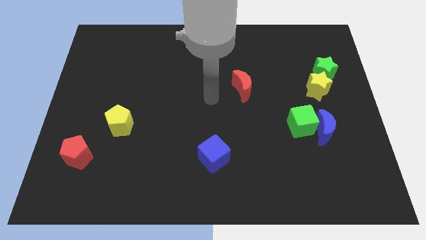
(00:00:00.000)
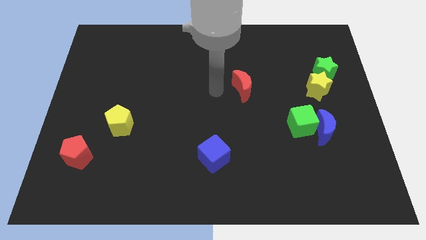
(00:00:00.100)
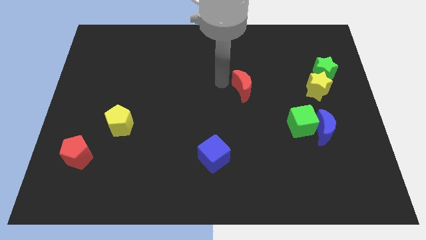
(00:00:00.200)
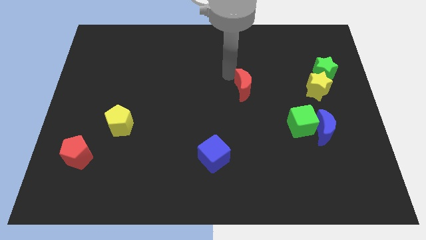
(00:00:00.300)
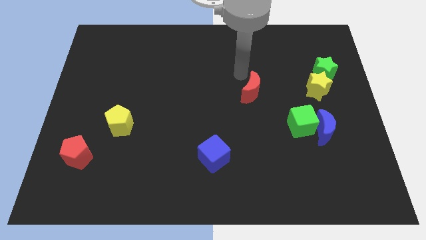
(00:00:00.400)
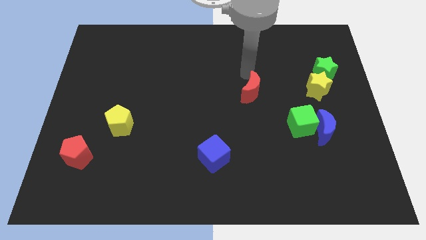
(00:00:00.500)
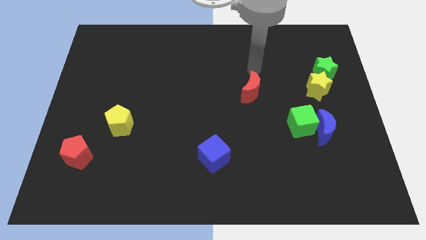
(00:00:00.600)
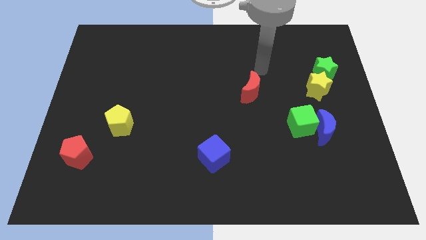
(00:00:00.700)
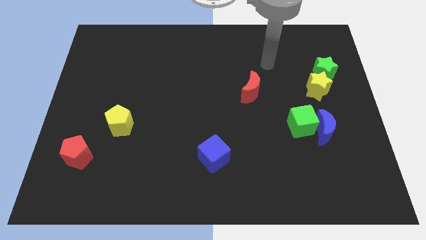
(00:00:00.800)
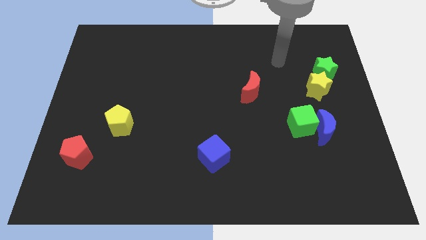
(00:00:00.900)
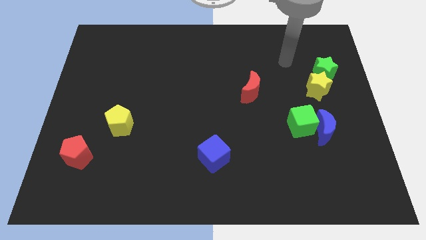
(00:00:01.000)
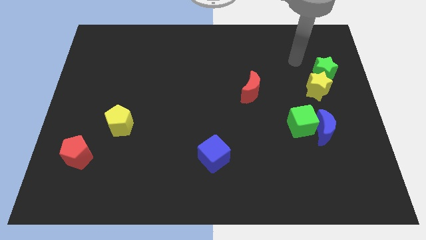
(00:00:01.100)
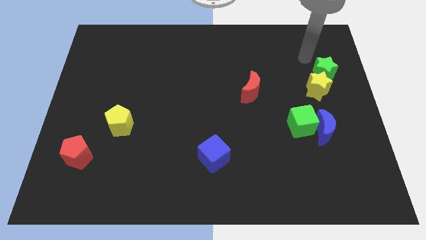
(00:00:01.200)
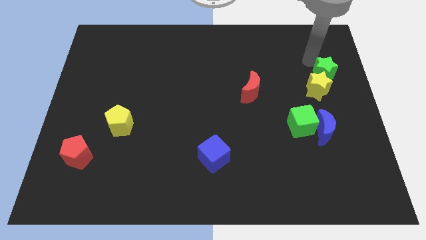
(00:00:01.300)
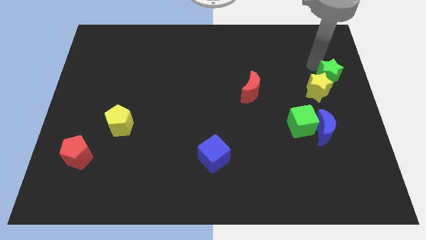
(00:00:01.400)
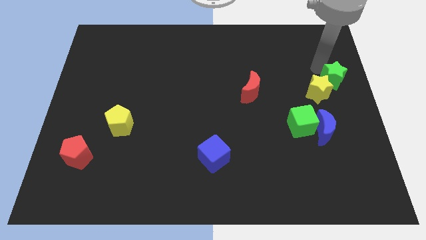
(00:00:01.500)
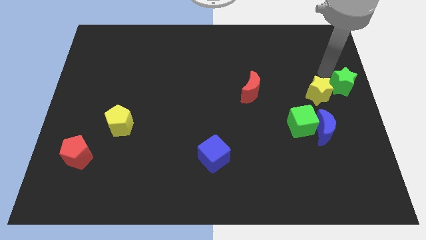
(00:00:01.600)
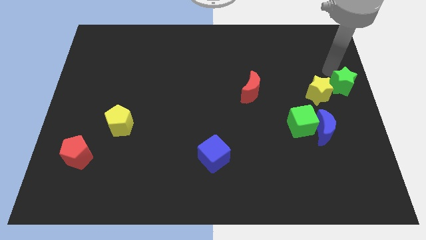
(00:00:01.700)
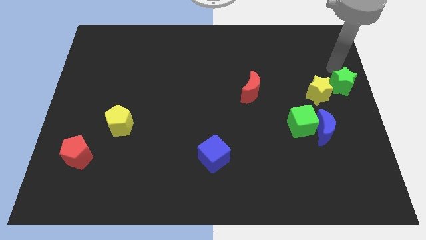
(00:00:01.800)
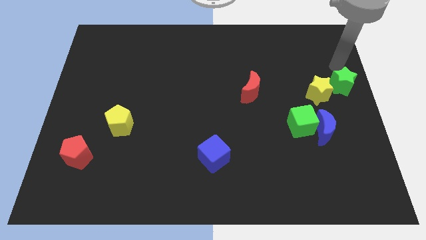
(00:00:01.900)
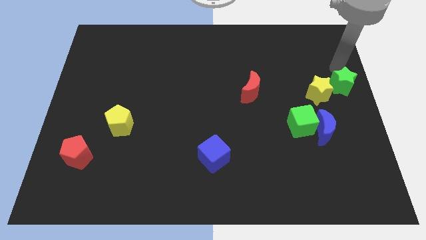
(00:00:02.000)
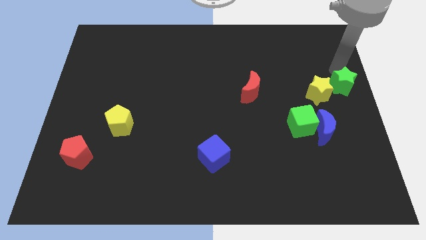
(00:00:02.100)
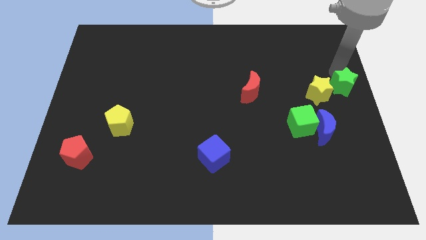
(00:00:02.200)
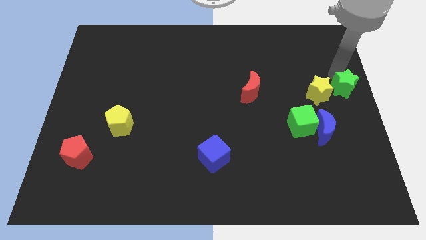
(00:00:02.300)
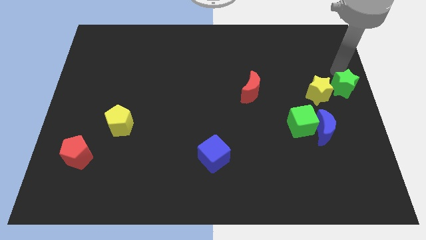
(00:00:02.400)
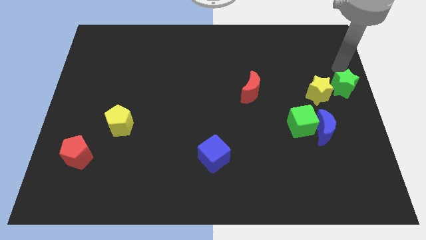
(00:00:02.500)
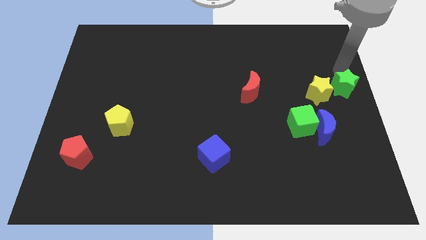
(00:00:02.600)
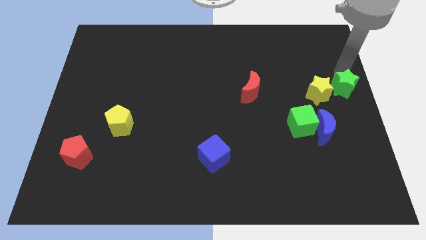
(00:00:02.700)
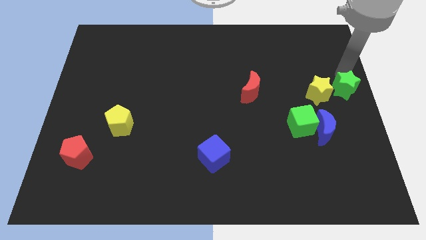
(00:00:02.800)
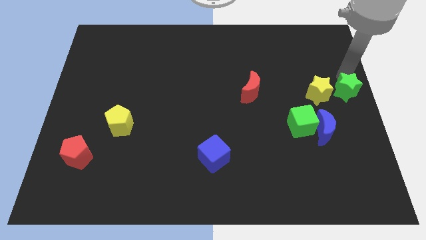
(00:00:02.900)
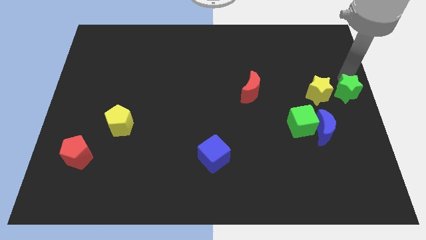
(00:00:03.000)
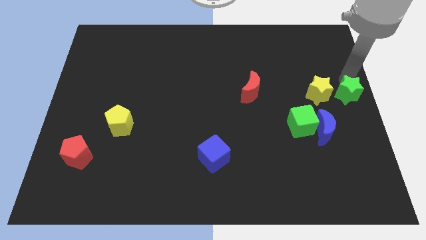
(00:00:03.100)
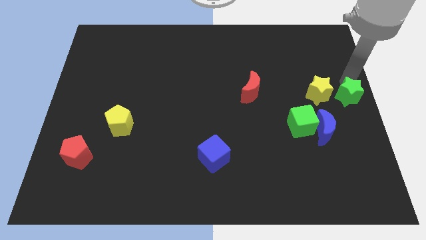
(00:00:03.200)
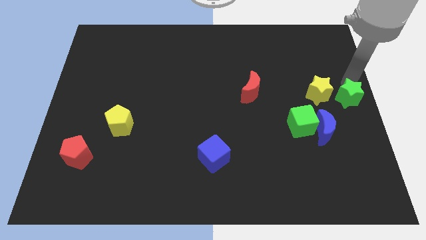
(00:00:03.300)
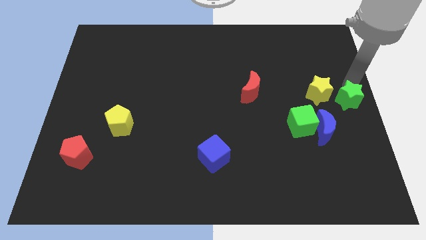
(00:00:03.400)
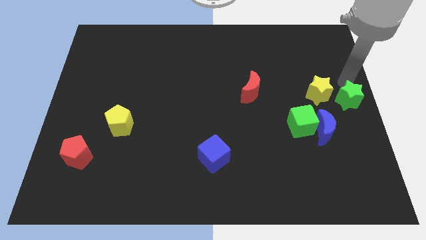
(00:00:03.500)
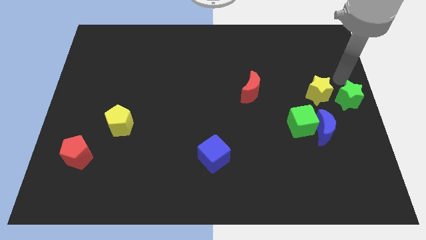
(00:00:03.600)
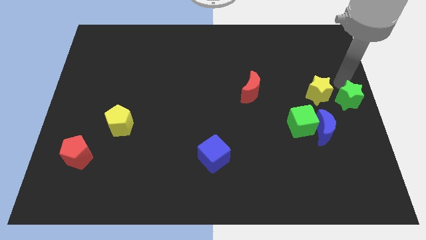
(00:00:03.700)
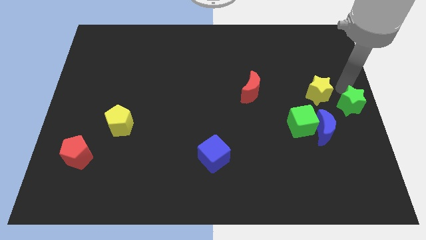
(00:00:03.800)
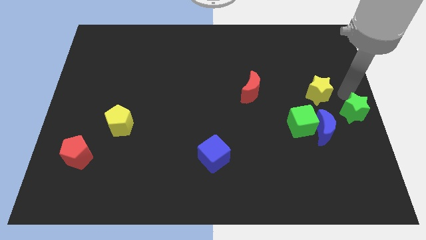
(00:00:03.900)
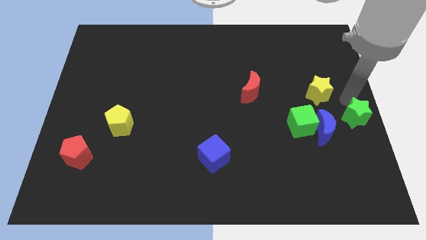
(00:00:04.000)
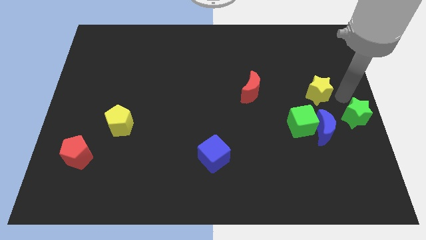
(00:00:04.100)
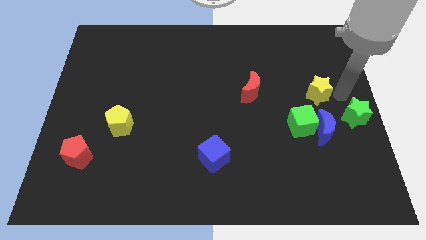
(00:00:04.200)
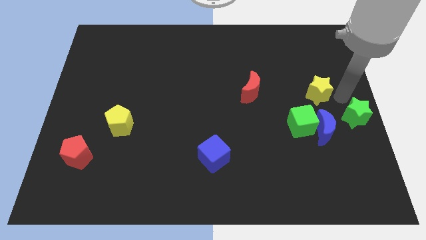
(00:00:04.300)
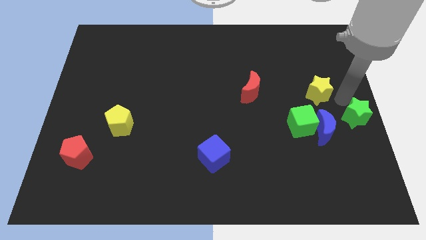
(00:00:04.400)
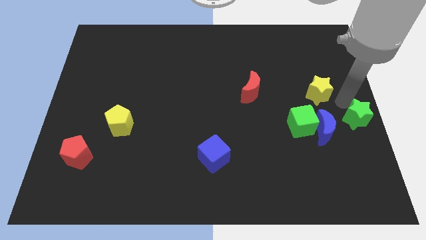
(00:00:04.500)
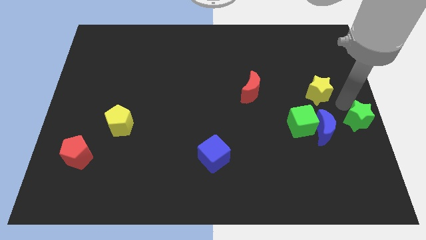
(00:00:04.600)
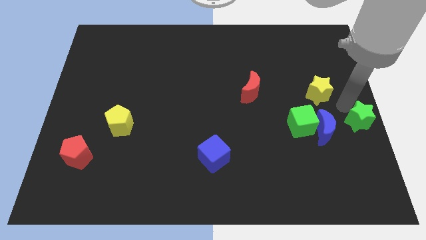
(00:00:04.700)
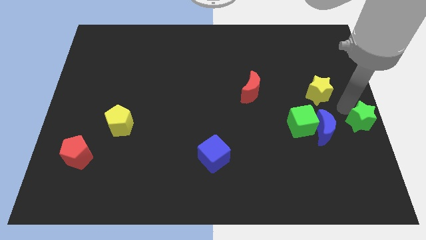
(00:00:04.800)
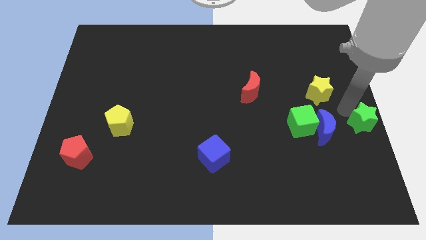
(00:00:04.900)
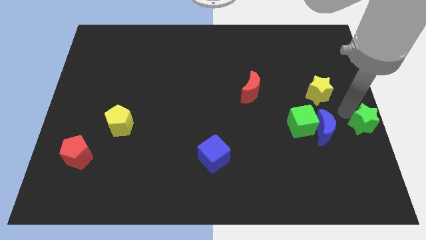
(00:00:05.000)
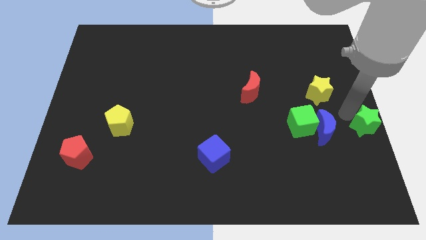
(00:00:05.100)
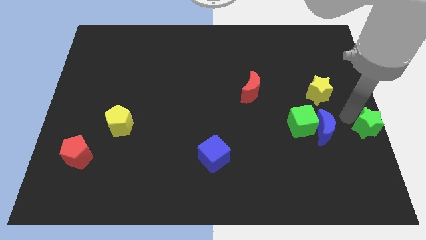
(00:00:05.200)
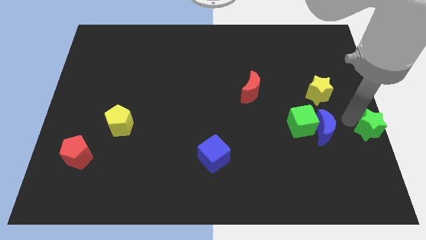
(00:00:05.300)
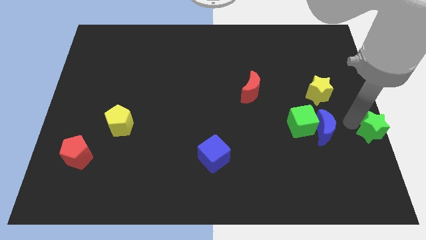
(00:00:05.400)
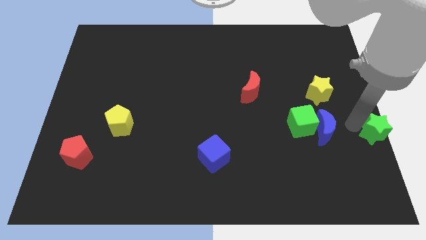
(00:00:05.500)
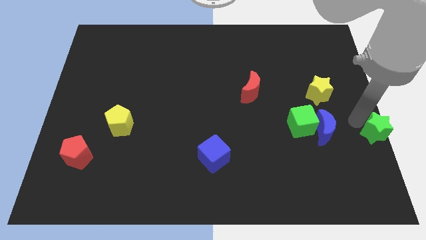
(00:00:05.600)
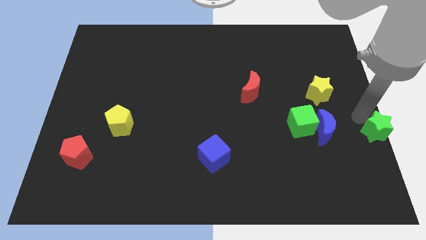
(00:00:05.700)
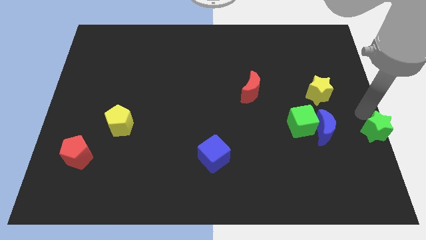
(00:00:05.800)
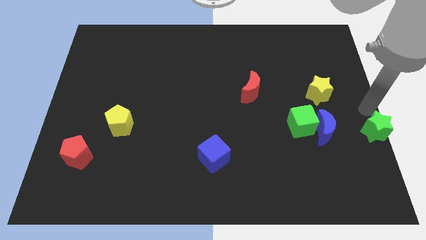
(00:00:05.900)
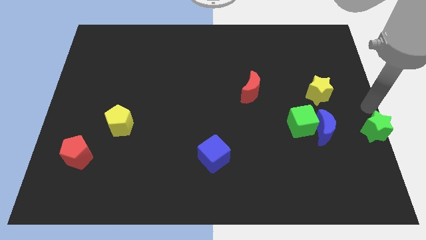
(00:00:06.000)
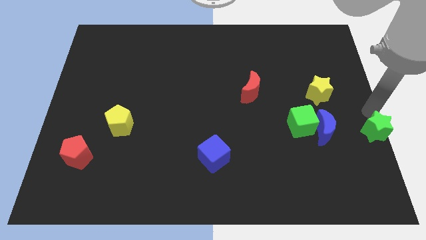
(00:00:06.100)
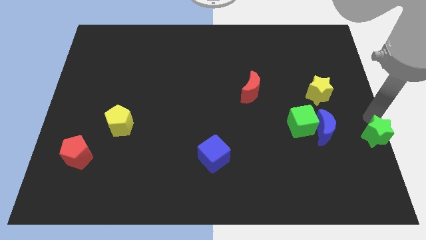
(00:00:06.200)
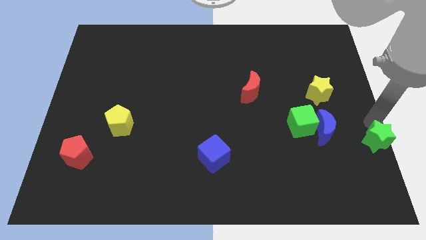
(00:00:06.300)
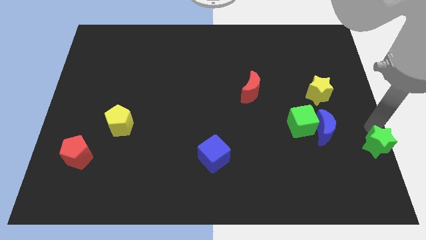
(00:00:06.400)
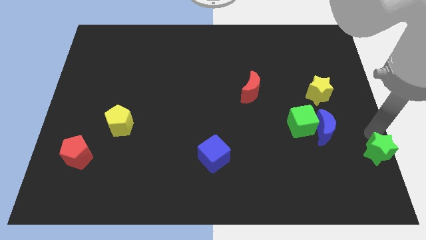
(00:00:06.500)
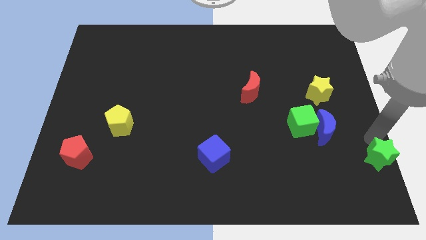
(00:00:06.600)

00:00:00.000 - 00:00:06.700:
push the green star to the bottom right
